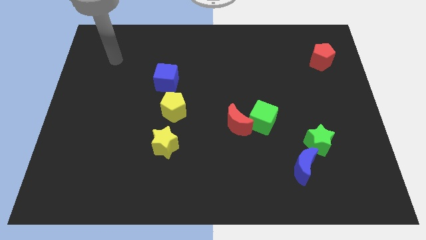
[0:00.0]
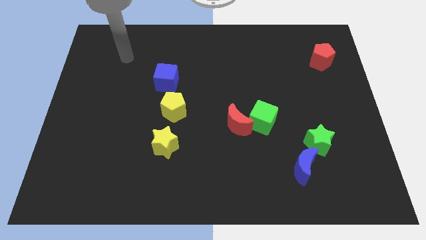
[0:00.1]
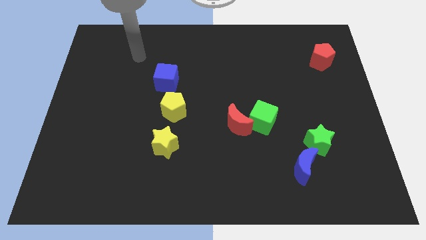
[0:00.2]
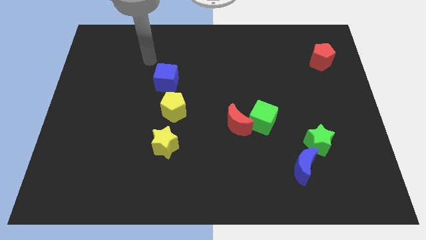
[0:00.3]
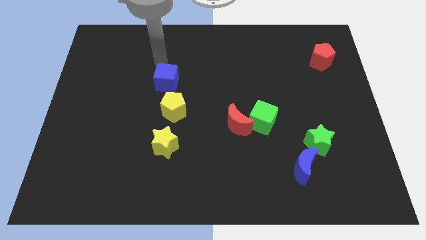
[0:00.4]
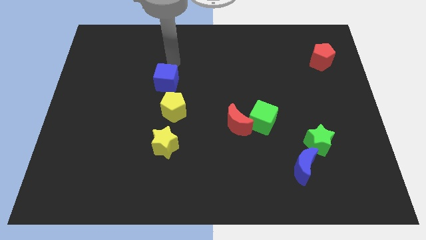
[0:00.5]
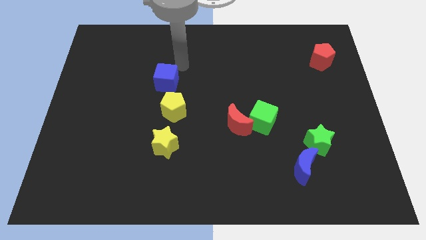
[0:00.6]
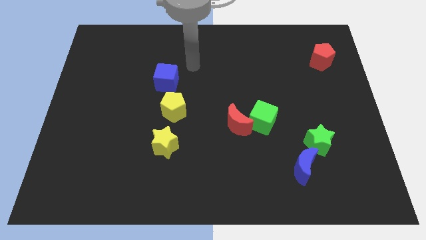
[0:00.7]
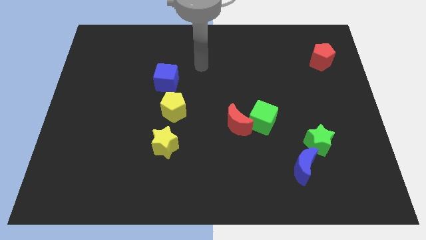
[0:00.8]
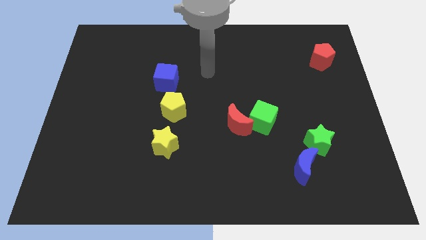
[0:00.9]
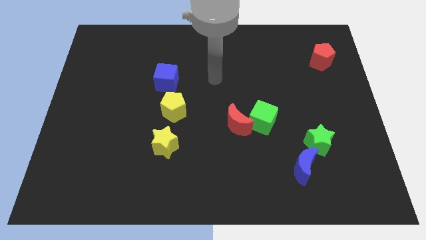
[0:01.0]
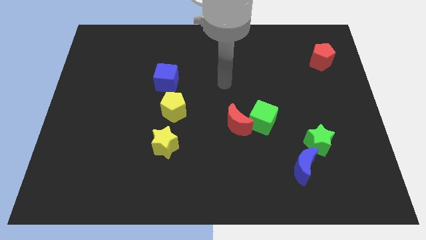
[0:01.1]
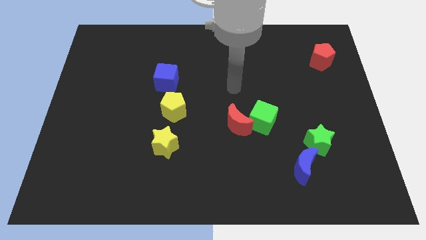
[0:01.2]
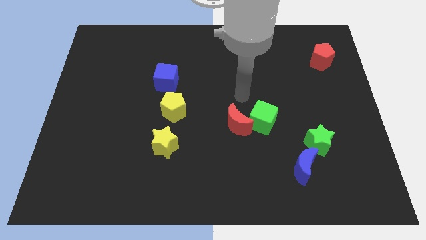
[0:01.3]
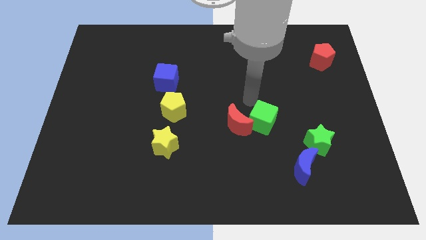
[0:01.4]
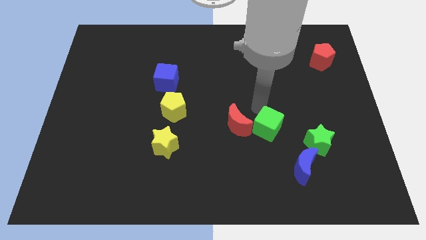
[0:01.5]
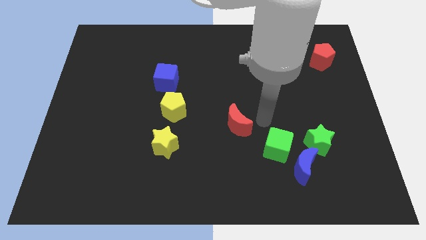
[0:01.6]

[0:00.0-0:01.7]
pull the red moon apart from the green cube

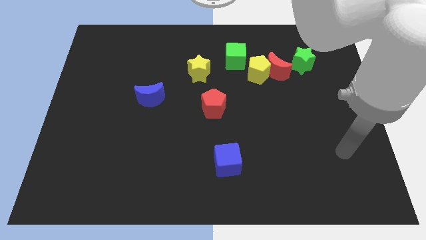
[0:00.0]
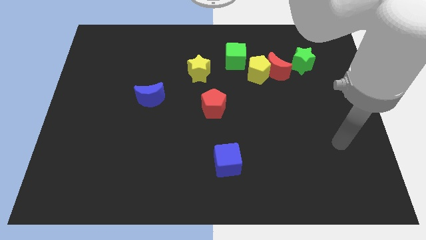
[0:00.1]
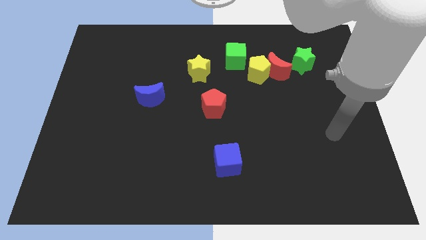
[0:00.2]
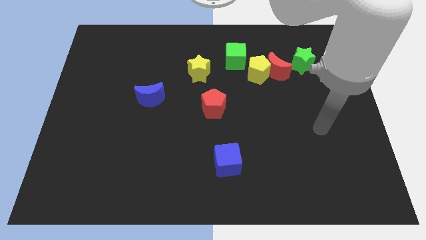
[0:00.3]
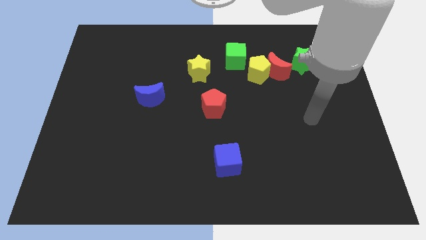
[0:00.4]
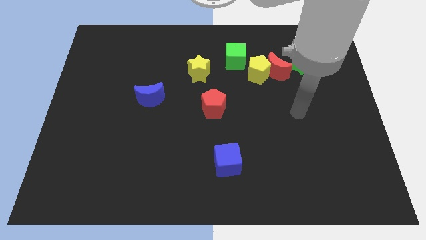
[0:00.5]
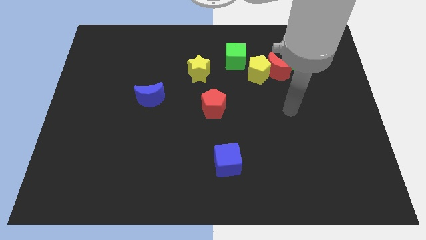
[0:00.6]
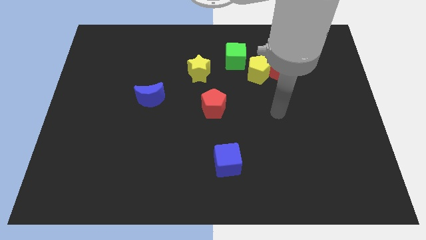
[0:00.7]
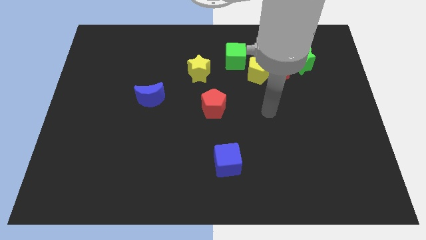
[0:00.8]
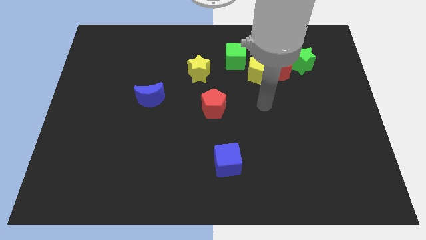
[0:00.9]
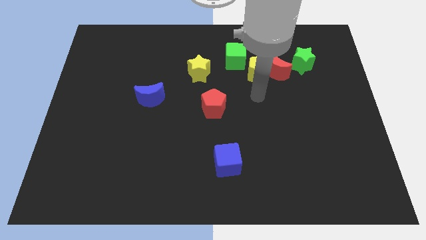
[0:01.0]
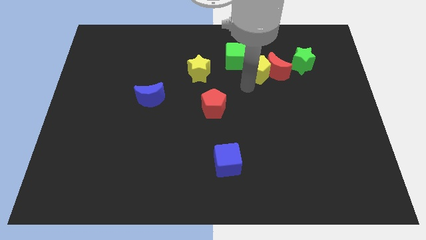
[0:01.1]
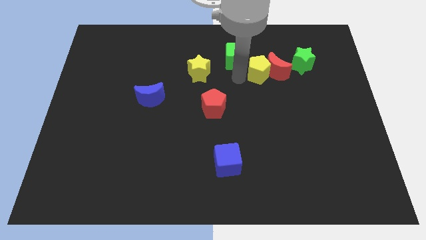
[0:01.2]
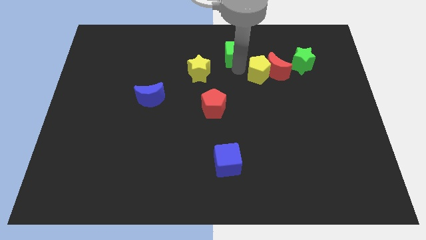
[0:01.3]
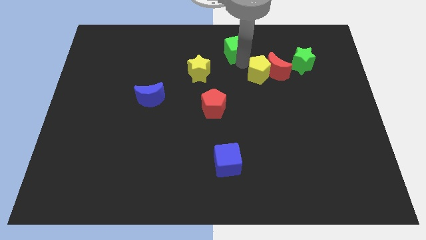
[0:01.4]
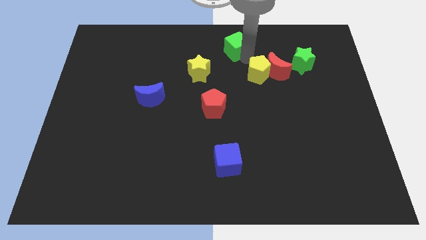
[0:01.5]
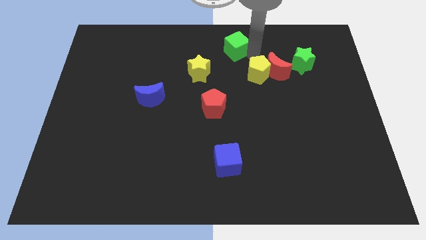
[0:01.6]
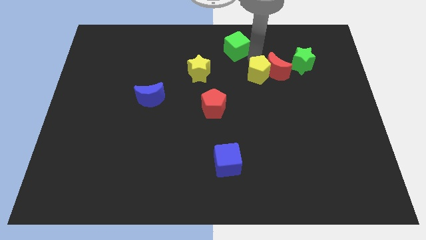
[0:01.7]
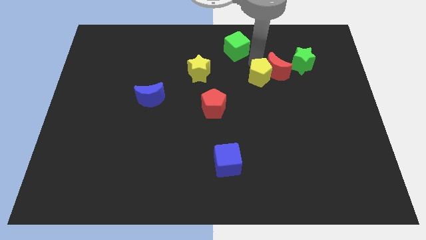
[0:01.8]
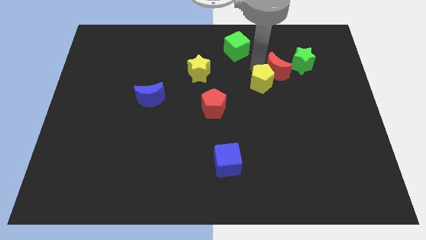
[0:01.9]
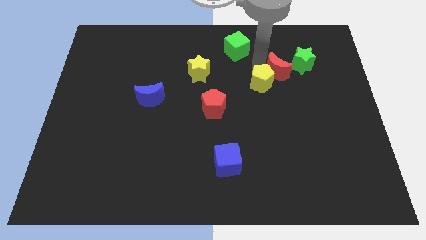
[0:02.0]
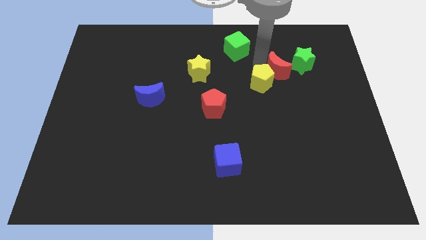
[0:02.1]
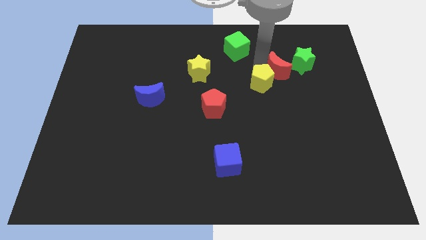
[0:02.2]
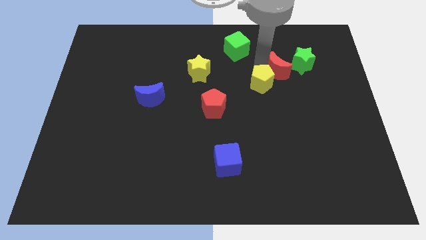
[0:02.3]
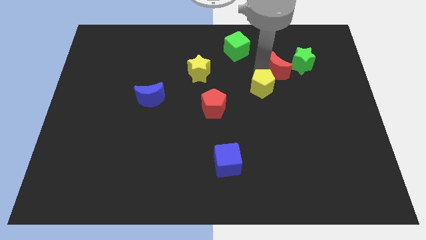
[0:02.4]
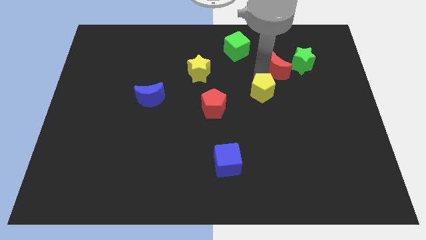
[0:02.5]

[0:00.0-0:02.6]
move the yellow pentagon away from the red moon and green cube

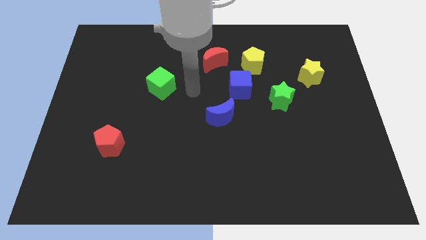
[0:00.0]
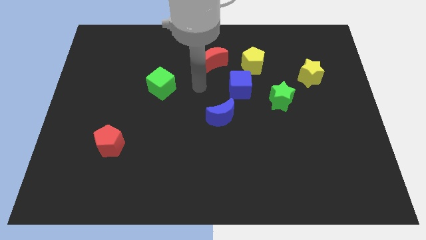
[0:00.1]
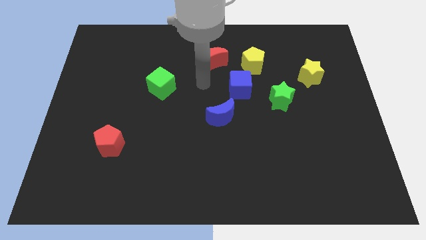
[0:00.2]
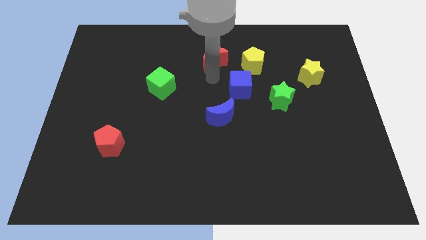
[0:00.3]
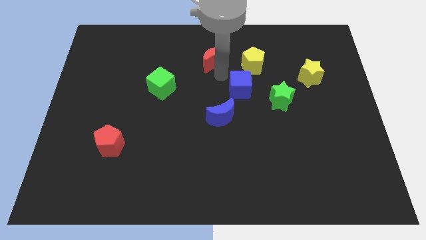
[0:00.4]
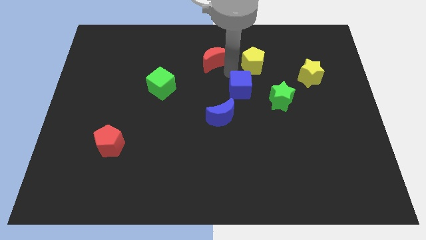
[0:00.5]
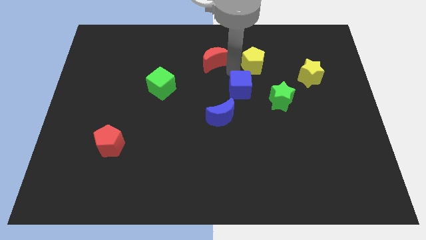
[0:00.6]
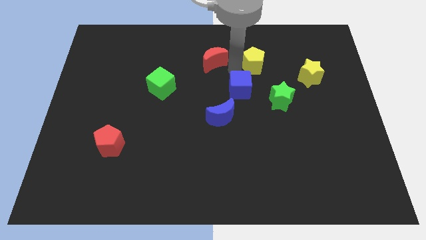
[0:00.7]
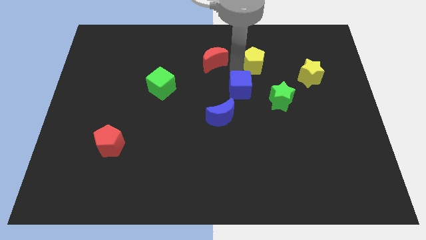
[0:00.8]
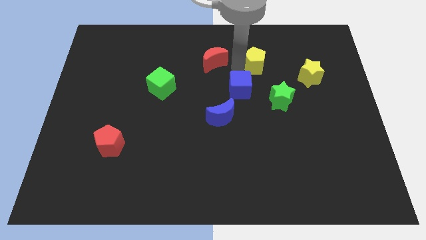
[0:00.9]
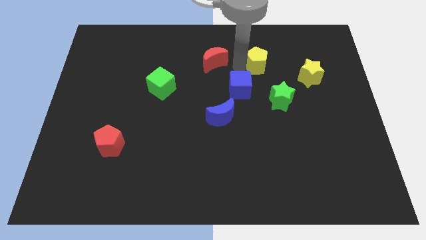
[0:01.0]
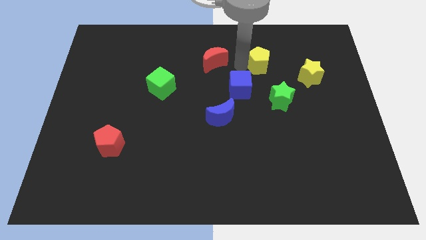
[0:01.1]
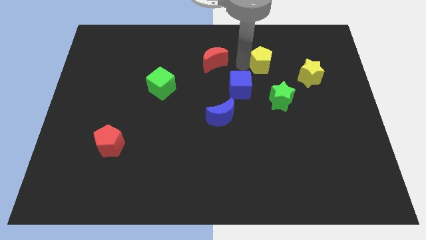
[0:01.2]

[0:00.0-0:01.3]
separate the yellow pentagon from the blue cube and red moon

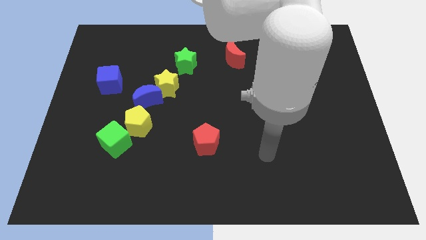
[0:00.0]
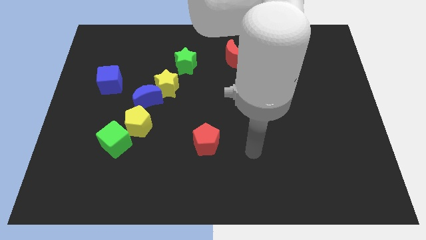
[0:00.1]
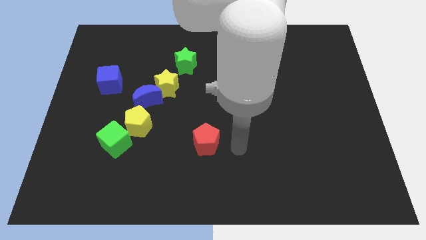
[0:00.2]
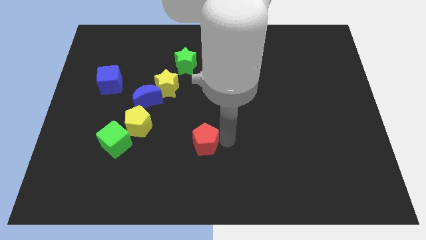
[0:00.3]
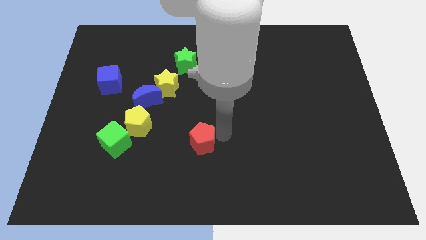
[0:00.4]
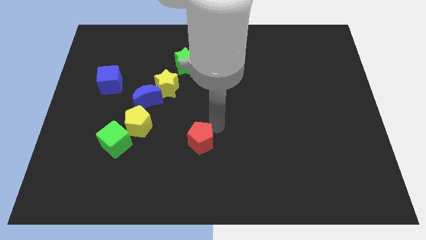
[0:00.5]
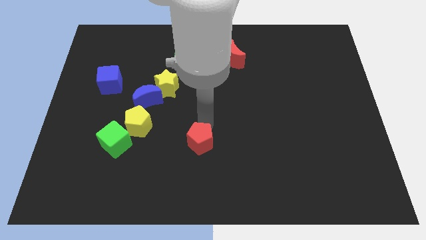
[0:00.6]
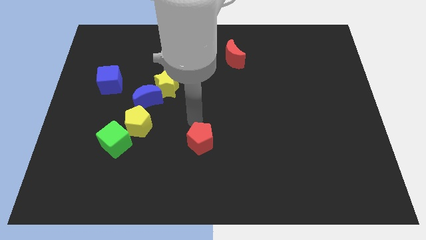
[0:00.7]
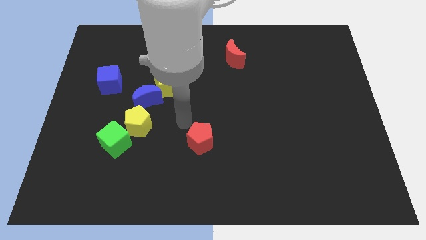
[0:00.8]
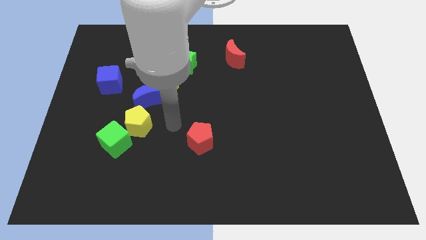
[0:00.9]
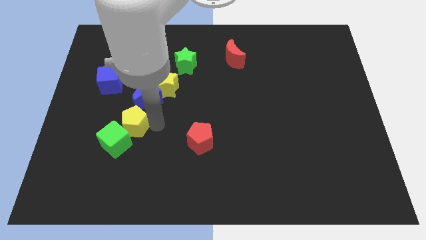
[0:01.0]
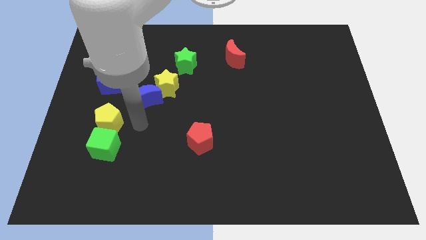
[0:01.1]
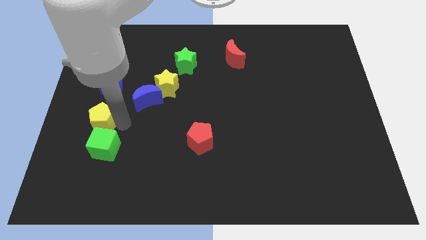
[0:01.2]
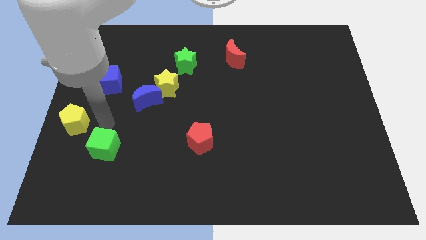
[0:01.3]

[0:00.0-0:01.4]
separate the green cube from the yellow pentagon

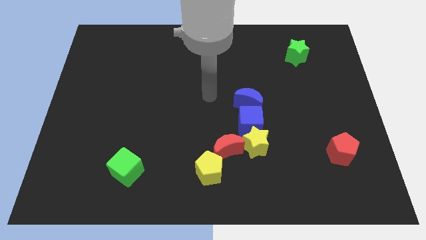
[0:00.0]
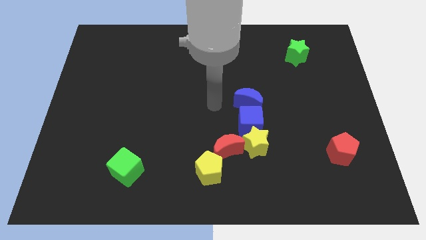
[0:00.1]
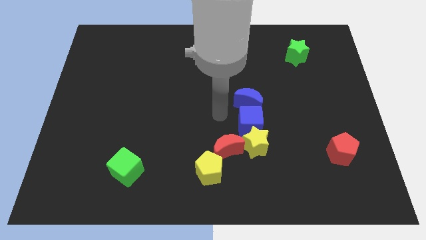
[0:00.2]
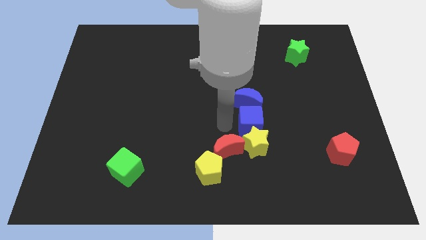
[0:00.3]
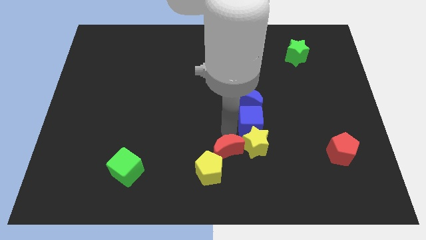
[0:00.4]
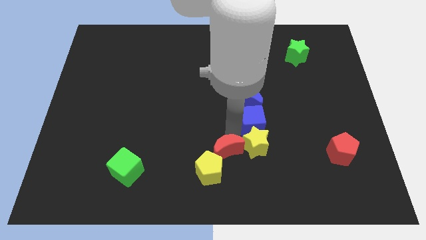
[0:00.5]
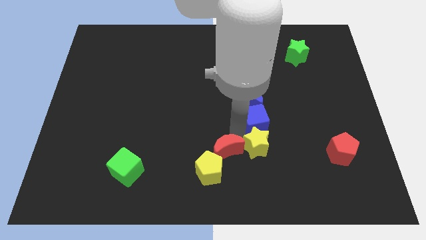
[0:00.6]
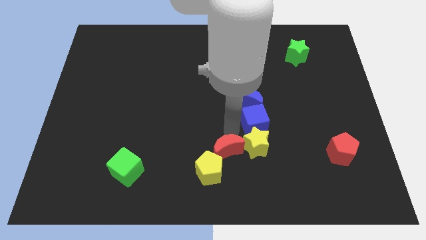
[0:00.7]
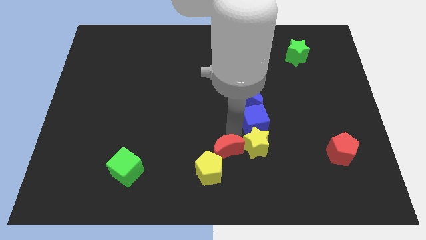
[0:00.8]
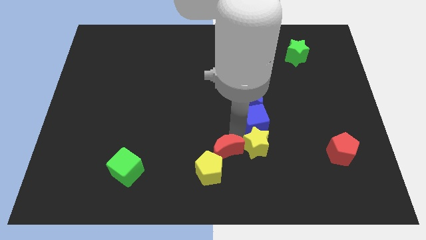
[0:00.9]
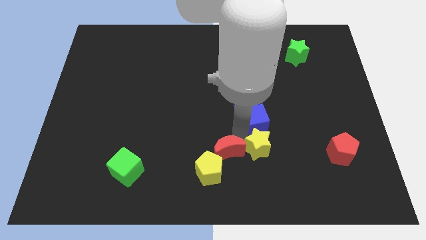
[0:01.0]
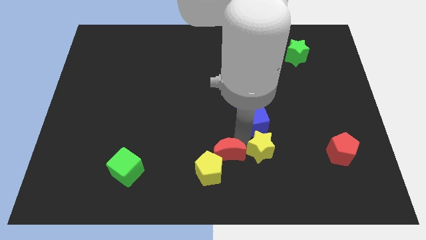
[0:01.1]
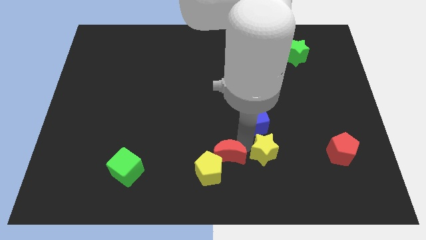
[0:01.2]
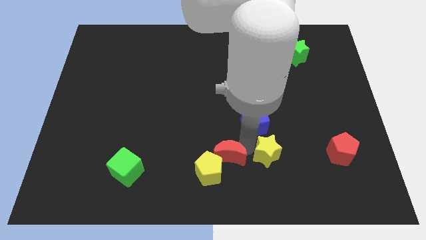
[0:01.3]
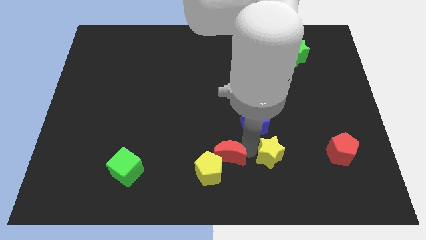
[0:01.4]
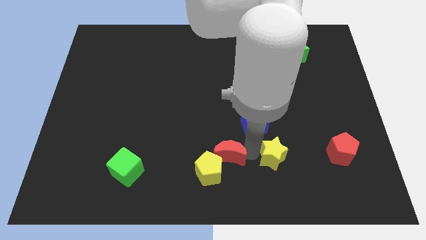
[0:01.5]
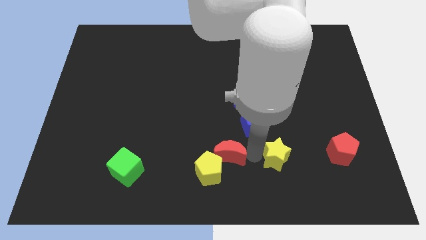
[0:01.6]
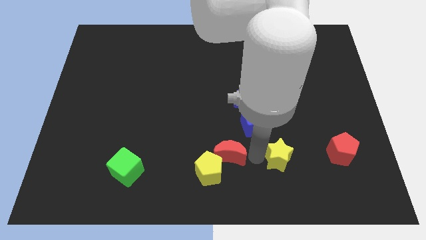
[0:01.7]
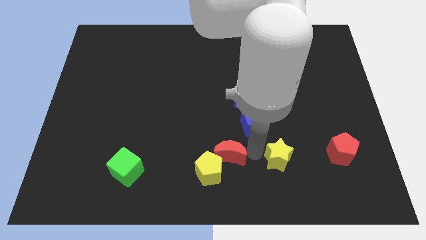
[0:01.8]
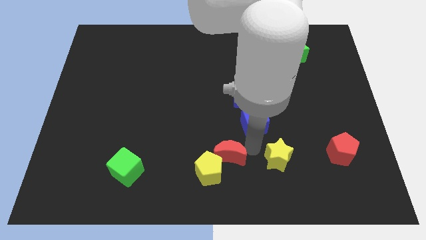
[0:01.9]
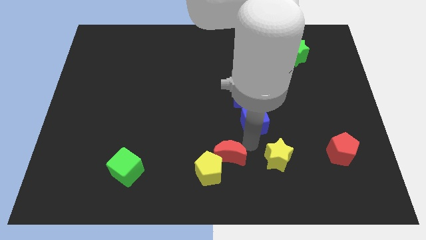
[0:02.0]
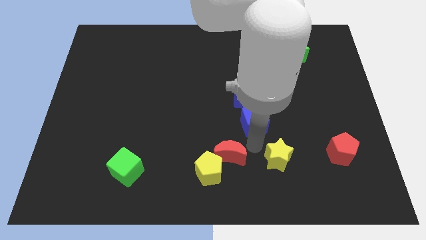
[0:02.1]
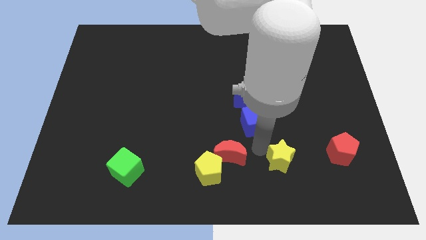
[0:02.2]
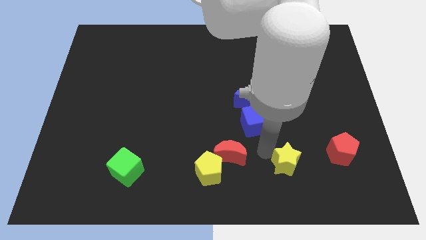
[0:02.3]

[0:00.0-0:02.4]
pull the yellow star apart from the blue cube and red moon
